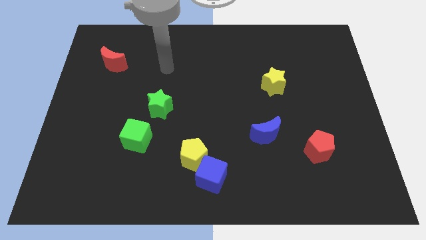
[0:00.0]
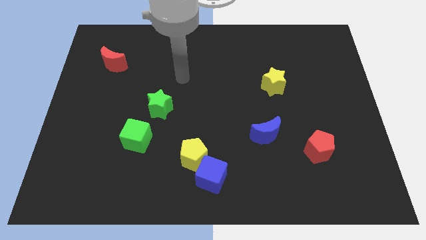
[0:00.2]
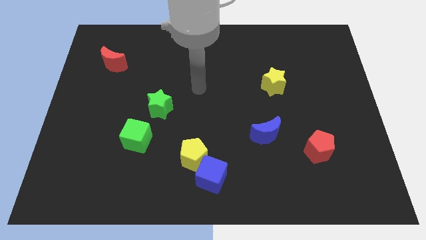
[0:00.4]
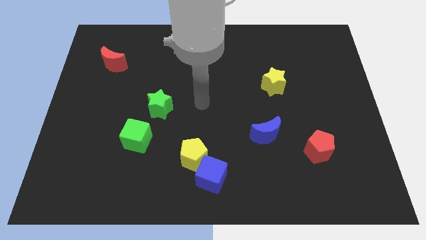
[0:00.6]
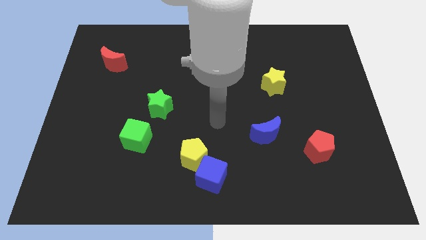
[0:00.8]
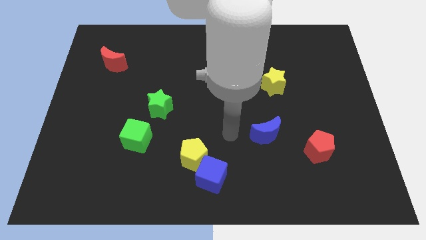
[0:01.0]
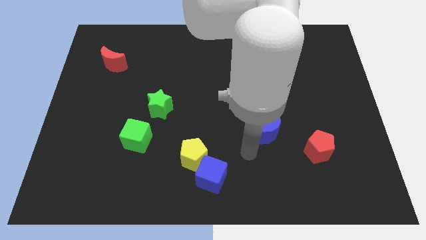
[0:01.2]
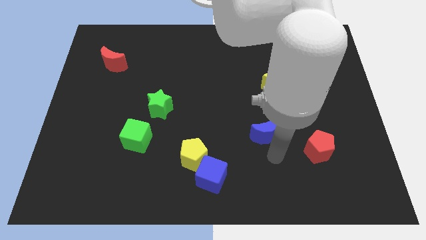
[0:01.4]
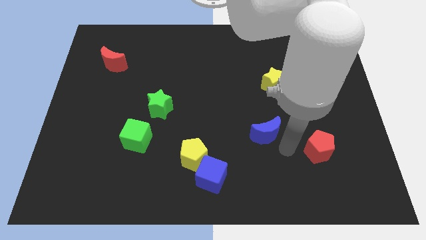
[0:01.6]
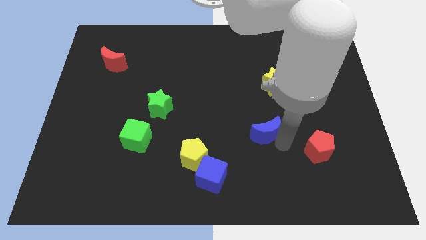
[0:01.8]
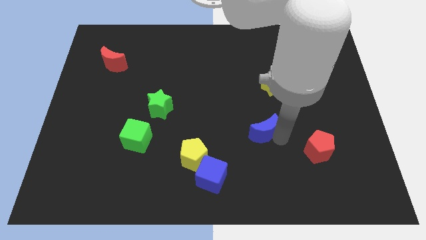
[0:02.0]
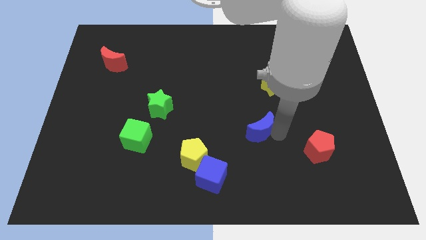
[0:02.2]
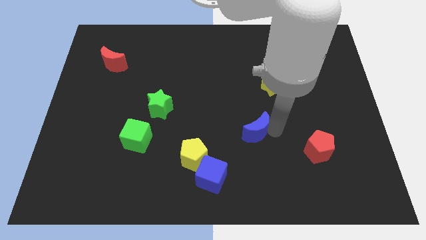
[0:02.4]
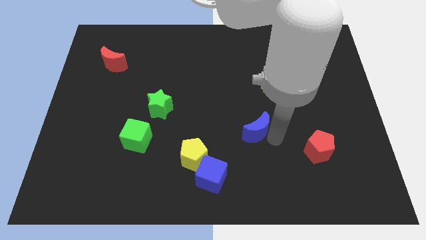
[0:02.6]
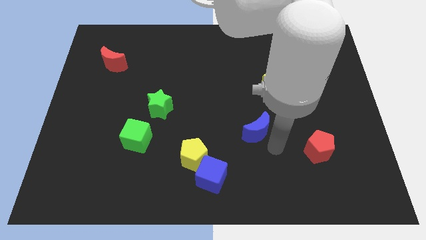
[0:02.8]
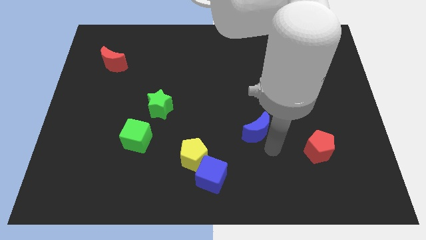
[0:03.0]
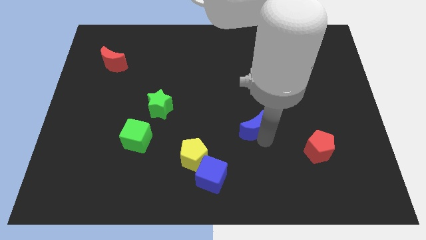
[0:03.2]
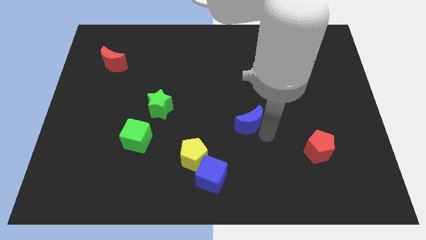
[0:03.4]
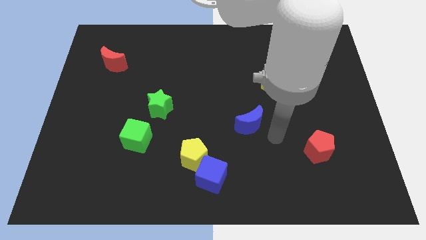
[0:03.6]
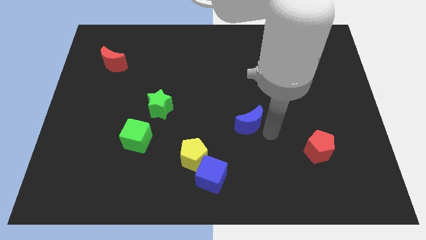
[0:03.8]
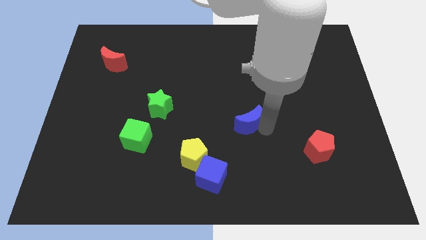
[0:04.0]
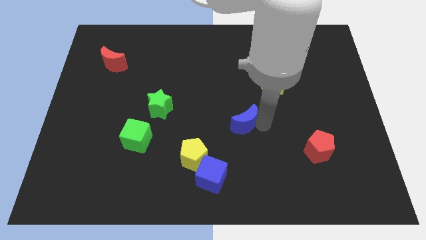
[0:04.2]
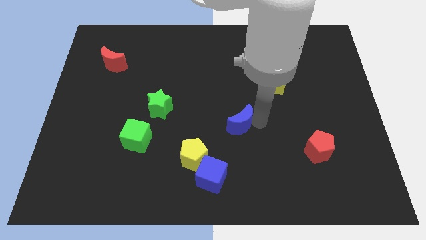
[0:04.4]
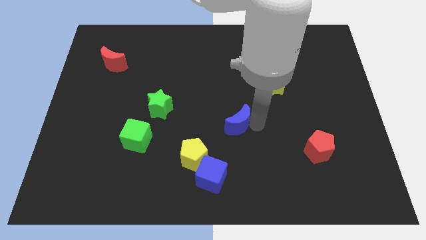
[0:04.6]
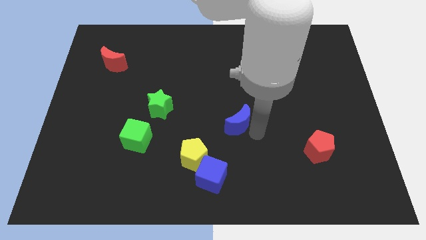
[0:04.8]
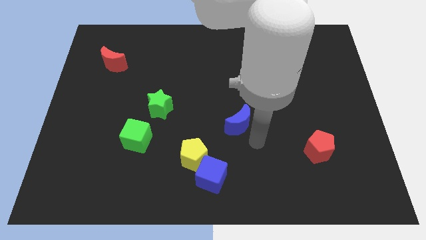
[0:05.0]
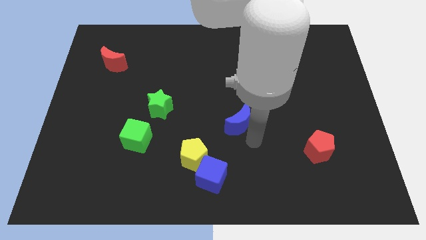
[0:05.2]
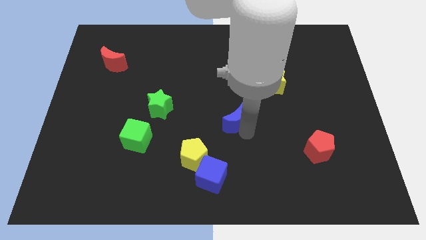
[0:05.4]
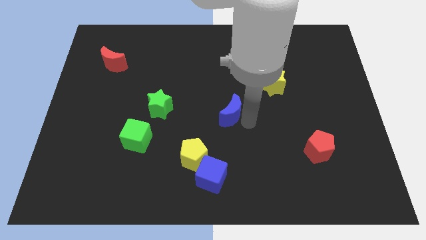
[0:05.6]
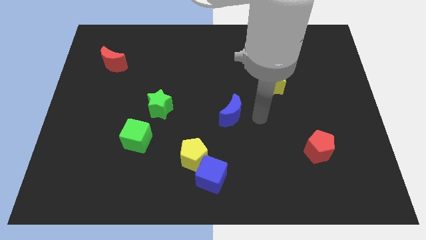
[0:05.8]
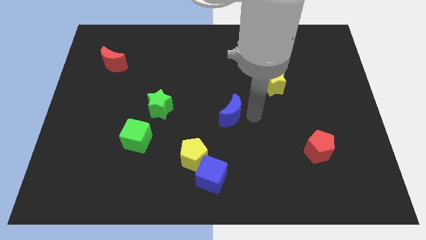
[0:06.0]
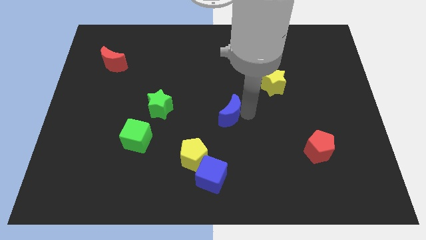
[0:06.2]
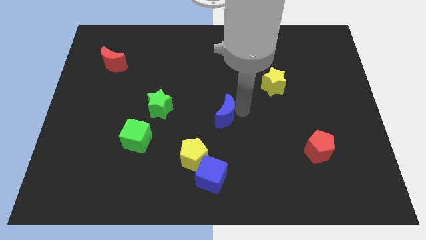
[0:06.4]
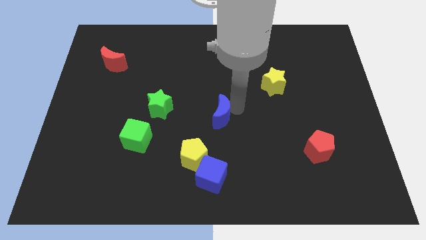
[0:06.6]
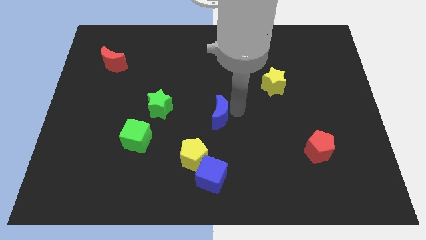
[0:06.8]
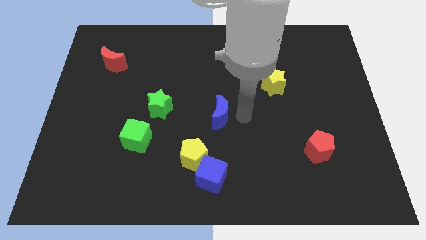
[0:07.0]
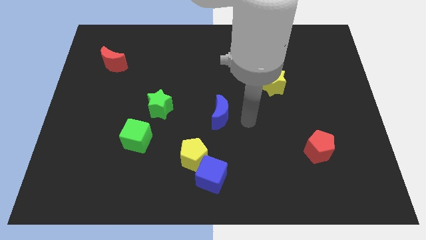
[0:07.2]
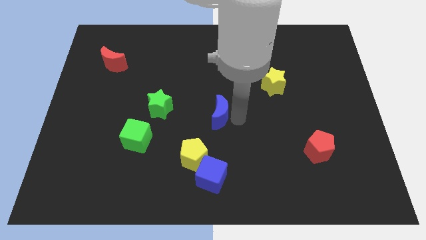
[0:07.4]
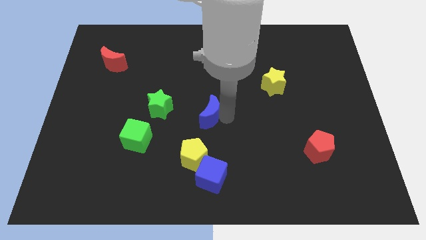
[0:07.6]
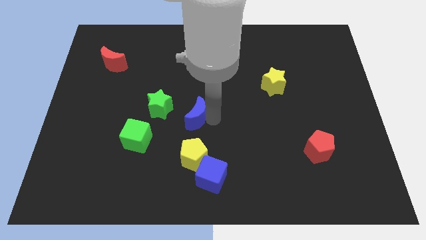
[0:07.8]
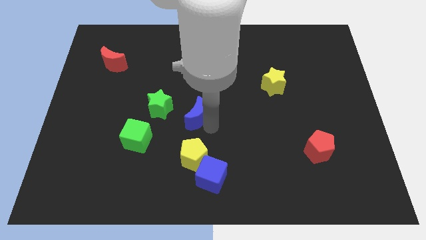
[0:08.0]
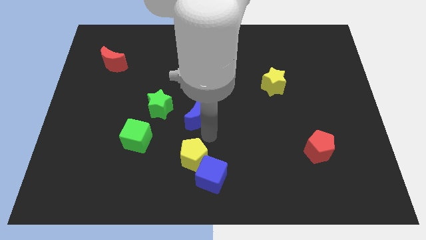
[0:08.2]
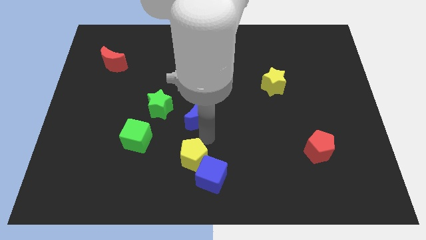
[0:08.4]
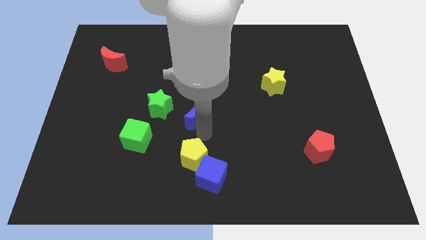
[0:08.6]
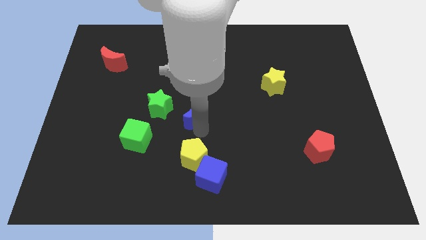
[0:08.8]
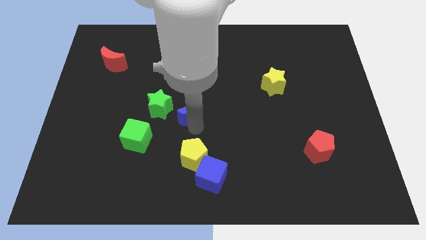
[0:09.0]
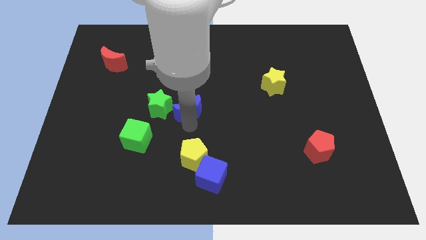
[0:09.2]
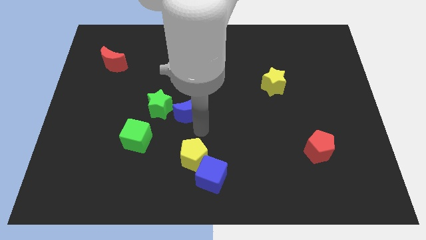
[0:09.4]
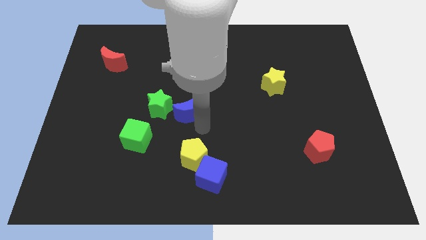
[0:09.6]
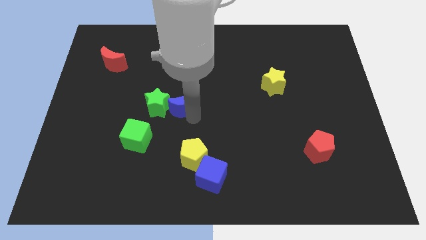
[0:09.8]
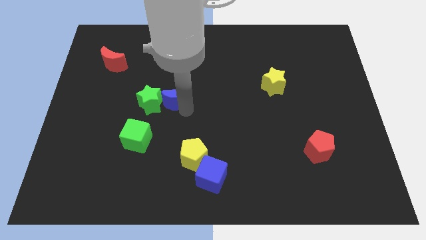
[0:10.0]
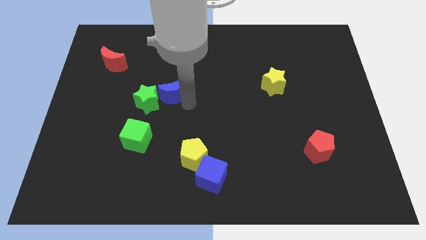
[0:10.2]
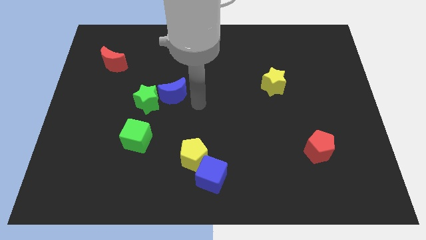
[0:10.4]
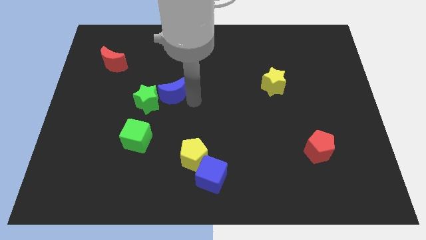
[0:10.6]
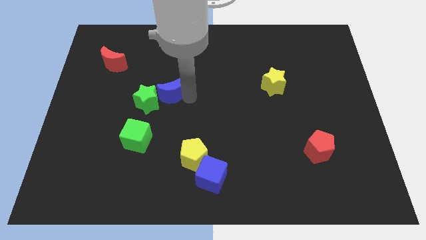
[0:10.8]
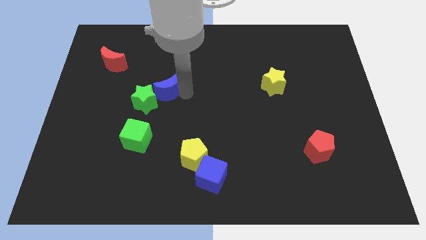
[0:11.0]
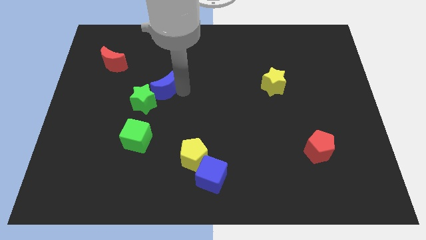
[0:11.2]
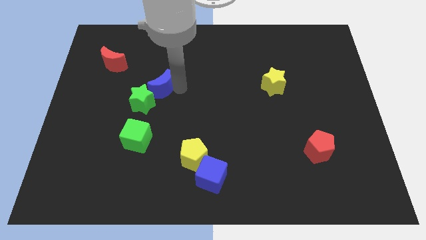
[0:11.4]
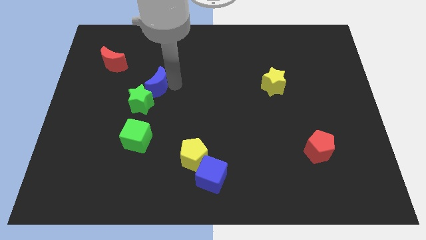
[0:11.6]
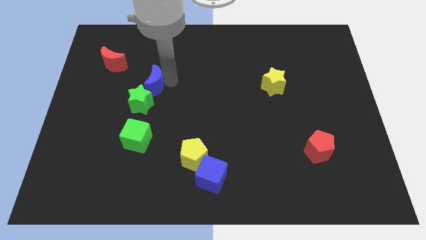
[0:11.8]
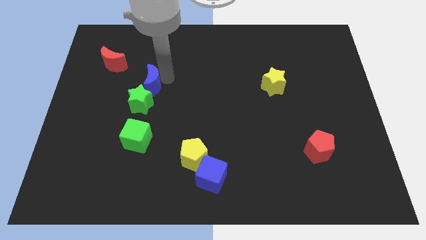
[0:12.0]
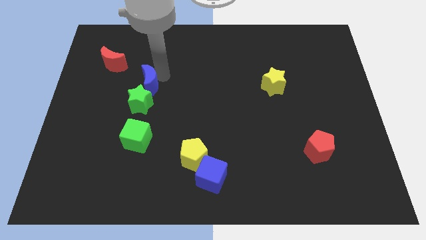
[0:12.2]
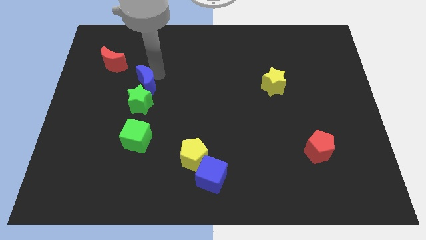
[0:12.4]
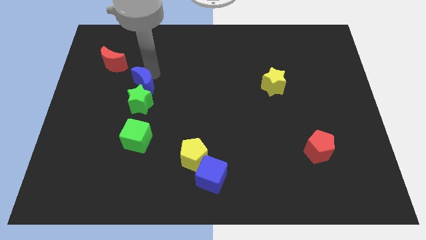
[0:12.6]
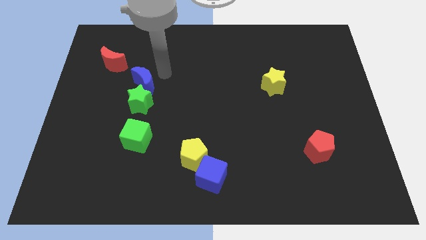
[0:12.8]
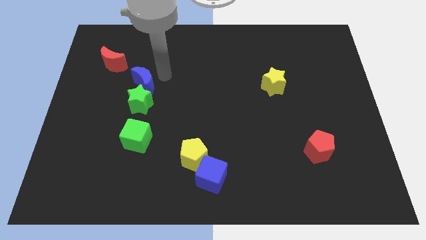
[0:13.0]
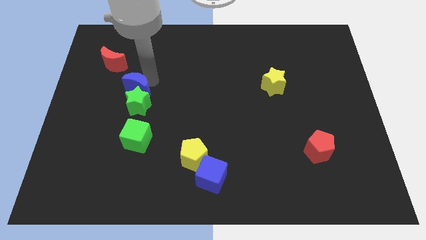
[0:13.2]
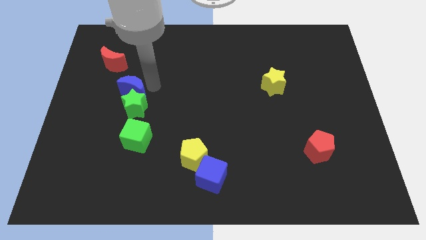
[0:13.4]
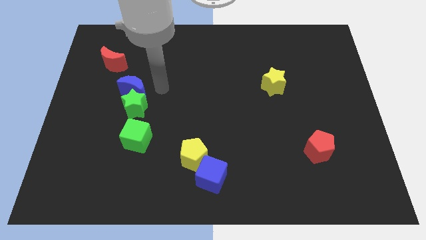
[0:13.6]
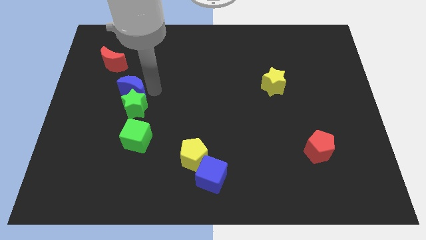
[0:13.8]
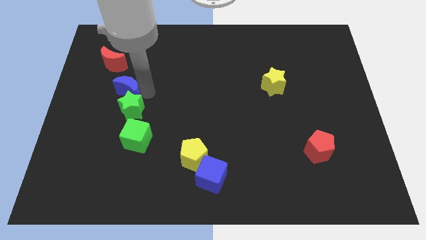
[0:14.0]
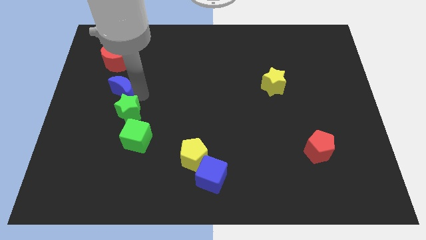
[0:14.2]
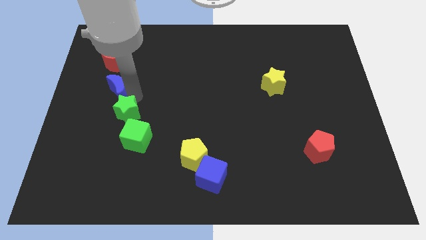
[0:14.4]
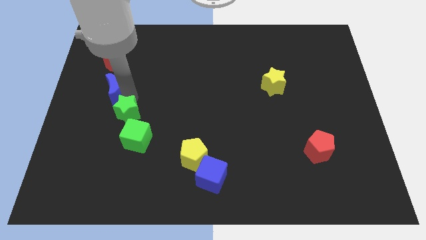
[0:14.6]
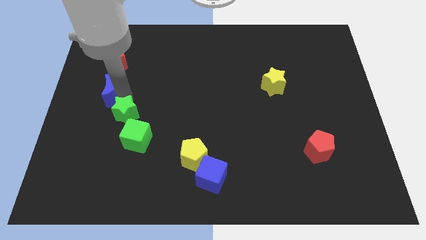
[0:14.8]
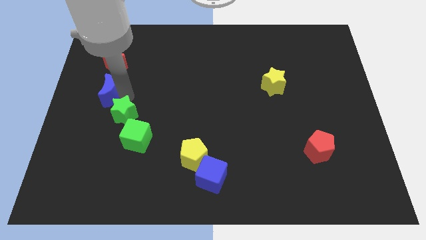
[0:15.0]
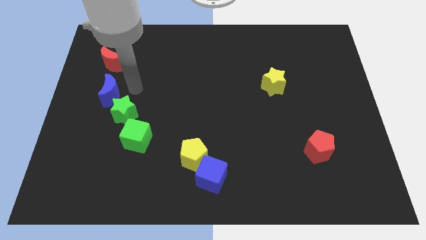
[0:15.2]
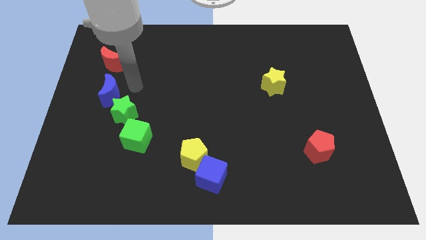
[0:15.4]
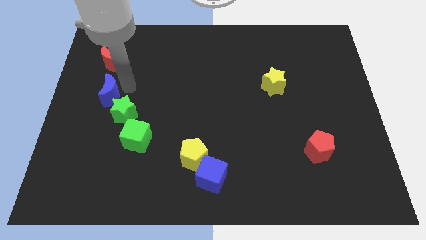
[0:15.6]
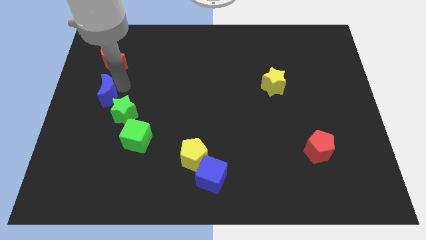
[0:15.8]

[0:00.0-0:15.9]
push the blue moon to the left side
